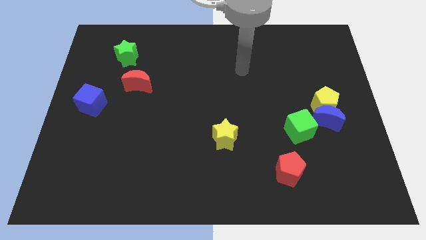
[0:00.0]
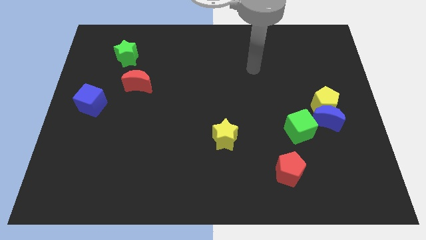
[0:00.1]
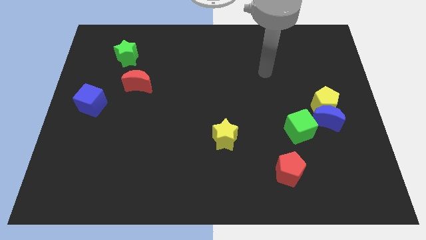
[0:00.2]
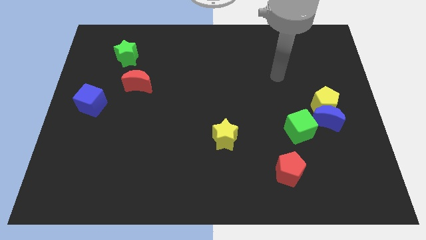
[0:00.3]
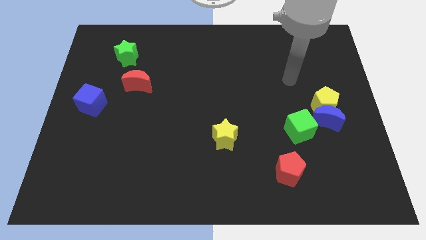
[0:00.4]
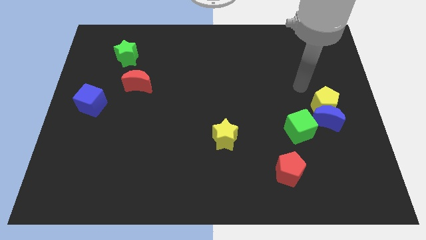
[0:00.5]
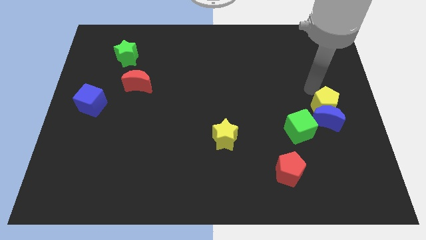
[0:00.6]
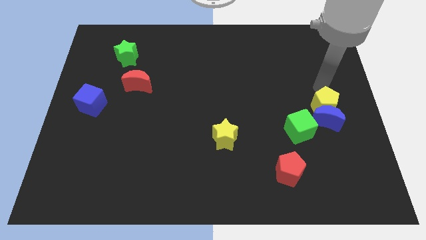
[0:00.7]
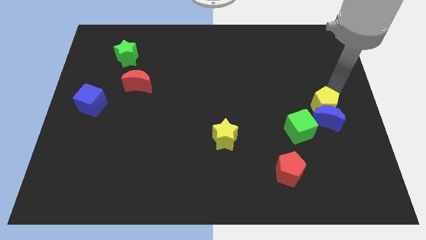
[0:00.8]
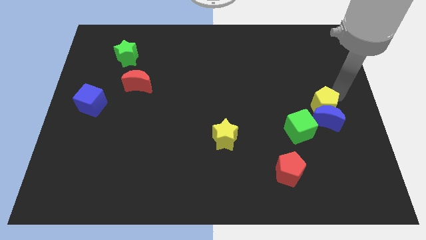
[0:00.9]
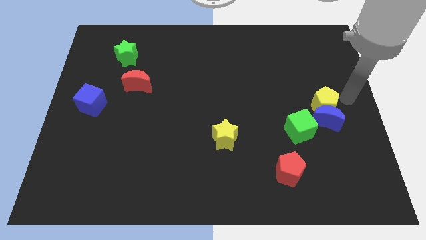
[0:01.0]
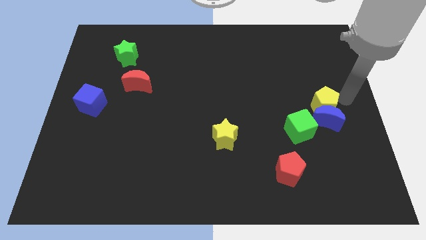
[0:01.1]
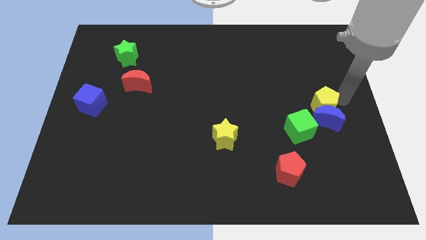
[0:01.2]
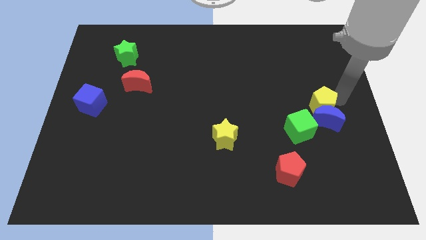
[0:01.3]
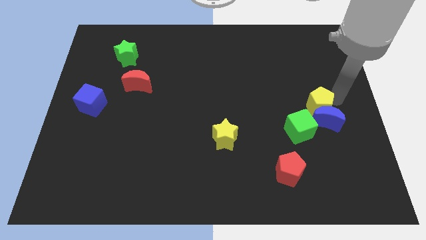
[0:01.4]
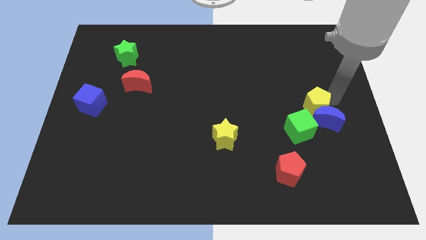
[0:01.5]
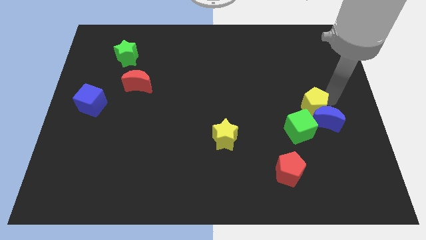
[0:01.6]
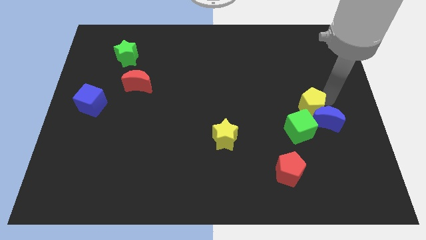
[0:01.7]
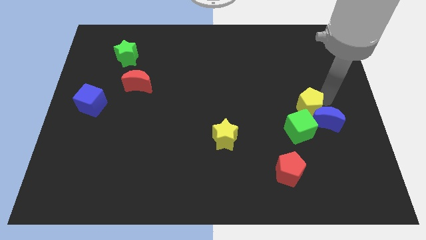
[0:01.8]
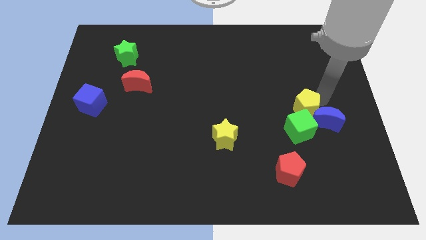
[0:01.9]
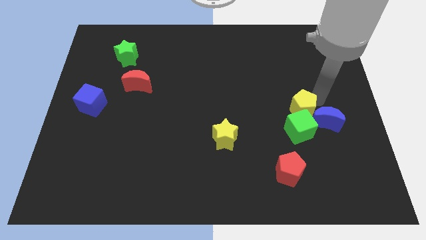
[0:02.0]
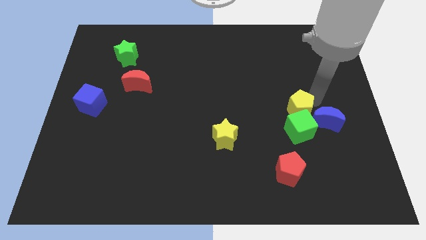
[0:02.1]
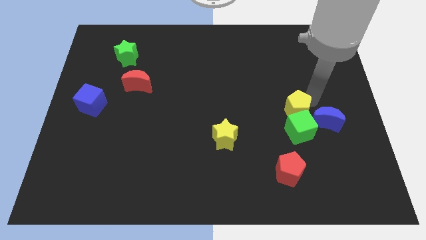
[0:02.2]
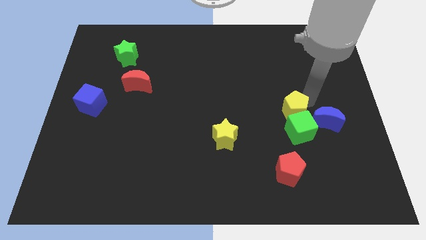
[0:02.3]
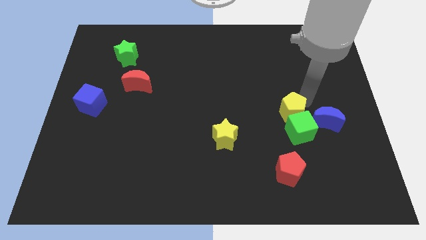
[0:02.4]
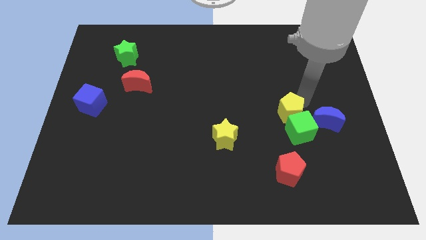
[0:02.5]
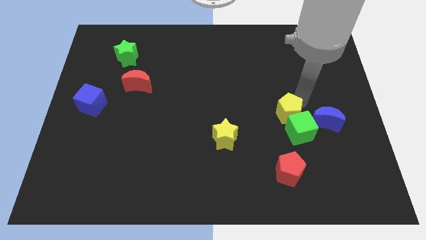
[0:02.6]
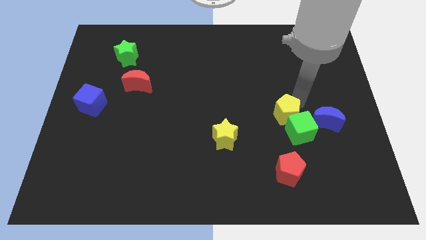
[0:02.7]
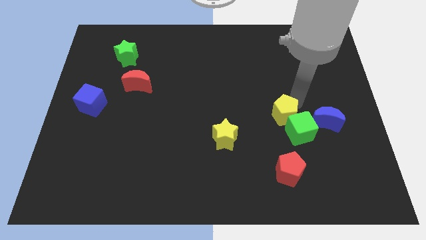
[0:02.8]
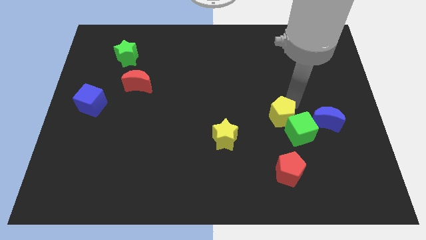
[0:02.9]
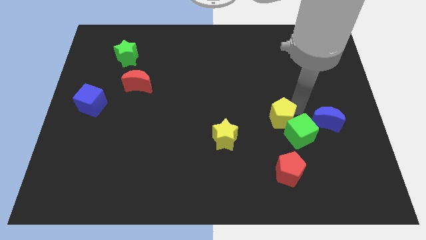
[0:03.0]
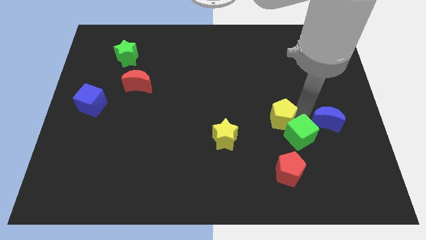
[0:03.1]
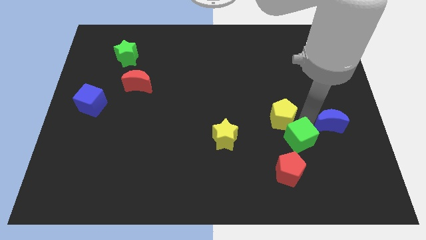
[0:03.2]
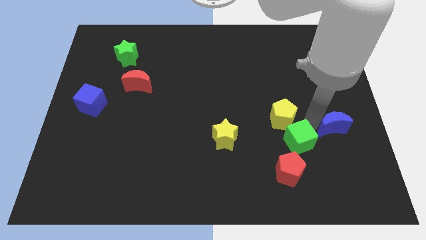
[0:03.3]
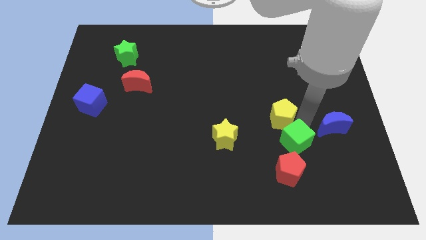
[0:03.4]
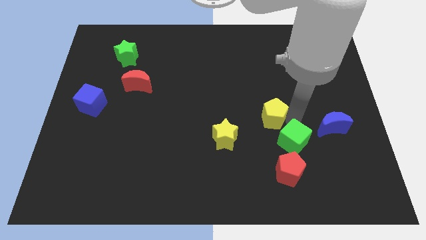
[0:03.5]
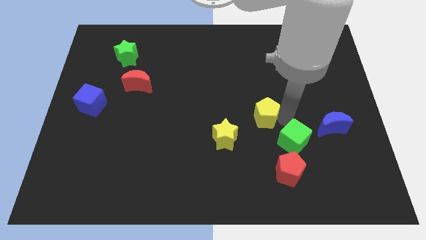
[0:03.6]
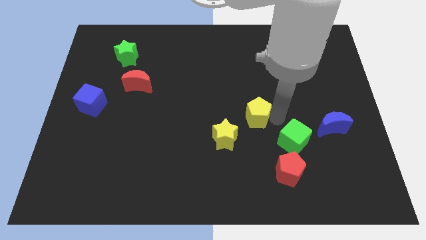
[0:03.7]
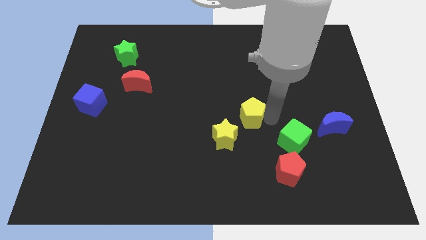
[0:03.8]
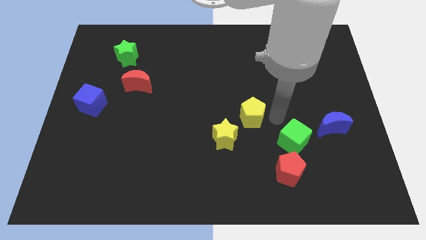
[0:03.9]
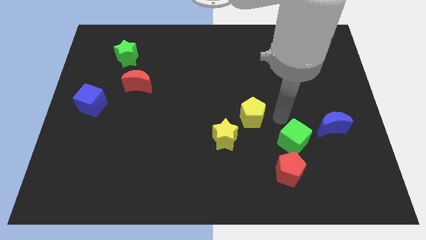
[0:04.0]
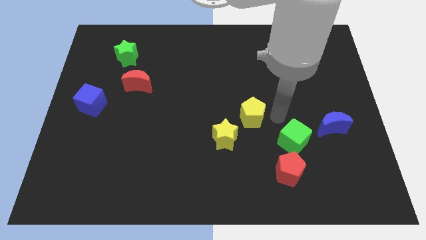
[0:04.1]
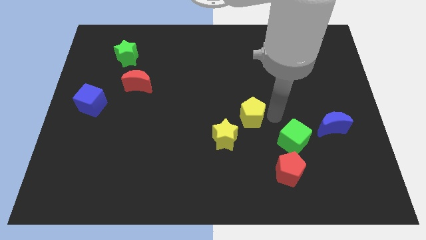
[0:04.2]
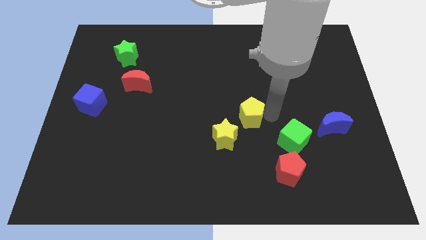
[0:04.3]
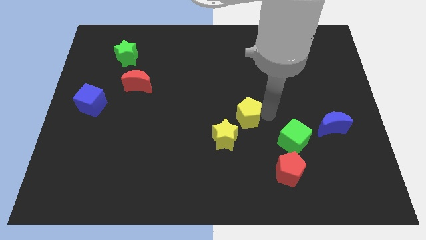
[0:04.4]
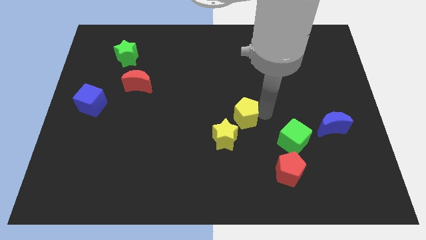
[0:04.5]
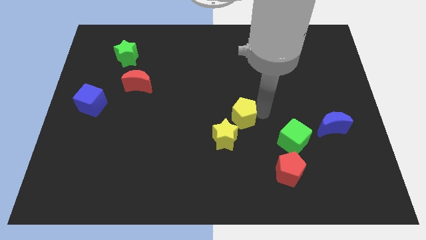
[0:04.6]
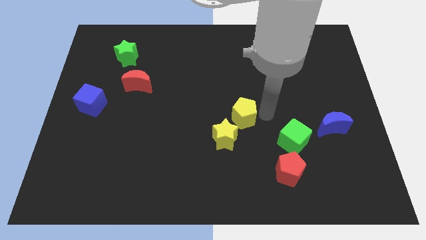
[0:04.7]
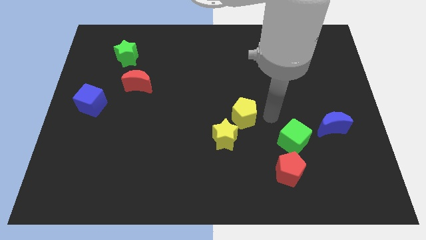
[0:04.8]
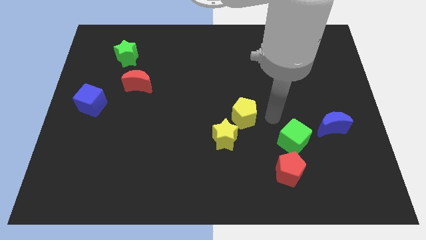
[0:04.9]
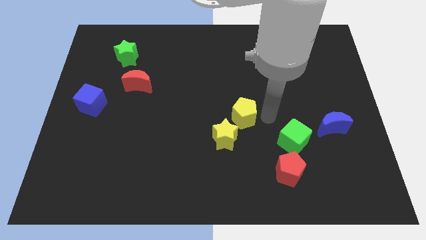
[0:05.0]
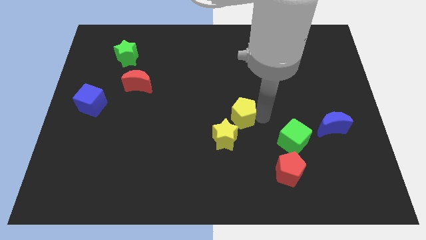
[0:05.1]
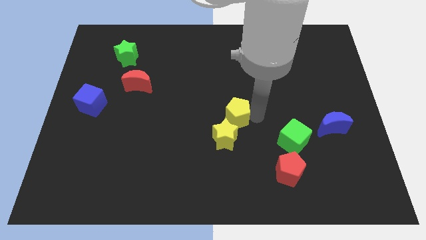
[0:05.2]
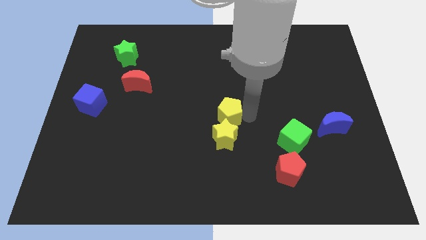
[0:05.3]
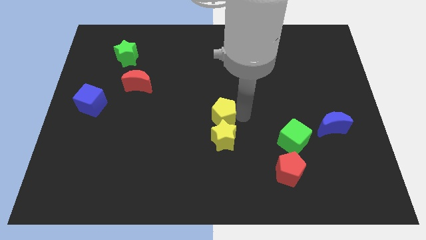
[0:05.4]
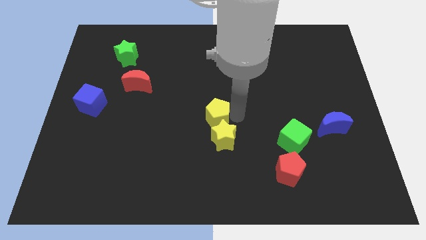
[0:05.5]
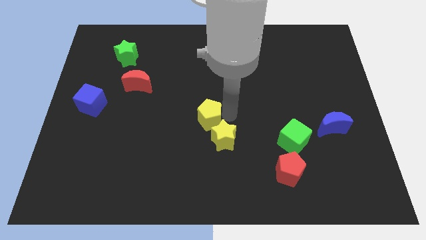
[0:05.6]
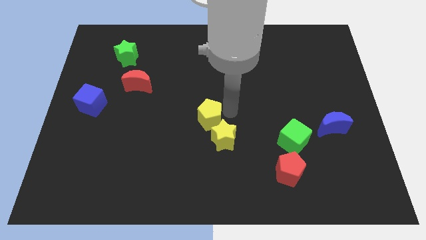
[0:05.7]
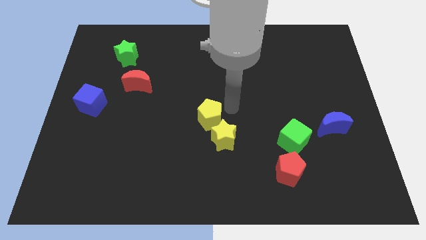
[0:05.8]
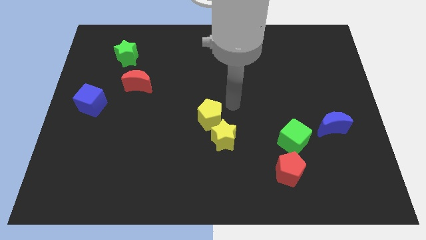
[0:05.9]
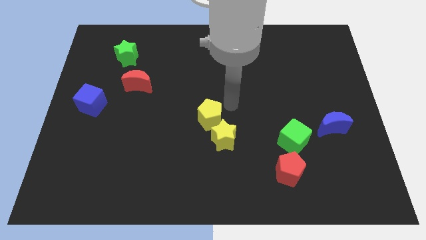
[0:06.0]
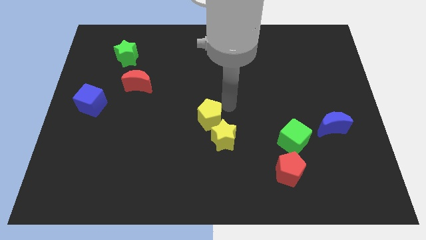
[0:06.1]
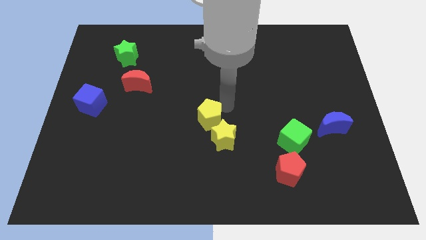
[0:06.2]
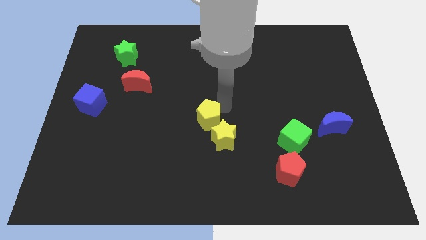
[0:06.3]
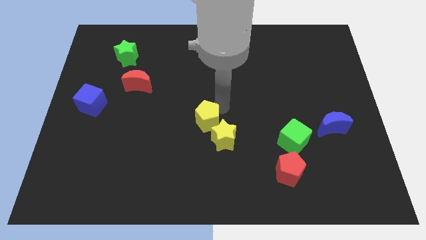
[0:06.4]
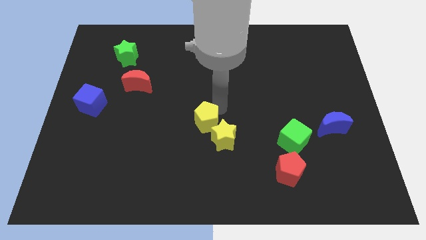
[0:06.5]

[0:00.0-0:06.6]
push the yellow pentagon to the left side of the yellow star
